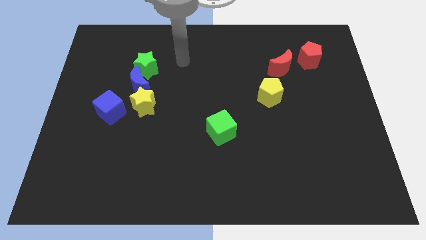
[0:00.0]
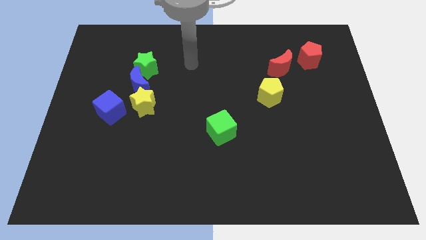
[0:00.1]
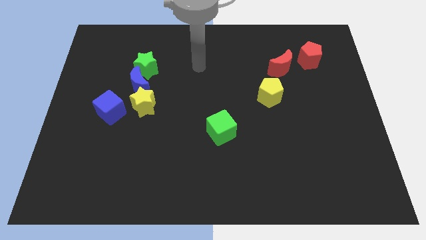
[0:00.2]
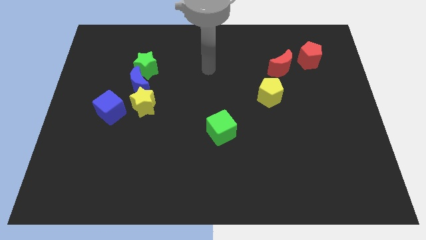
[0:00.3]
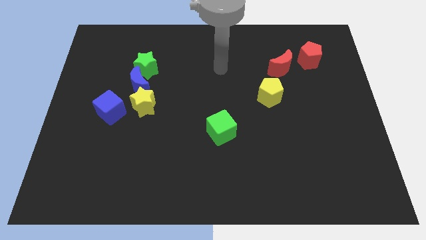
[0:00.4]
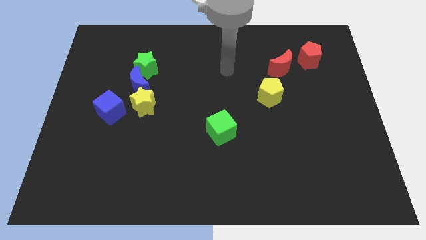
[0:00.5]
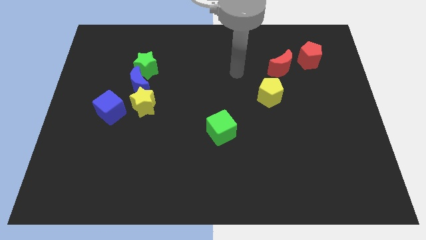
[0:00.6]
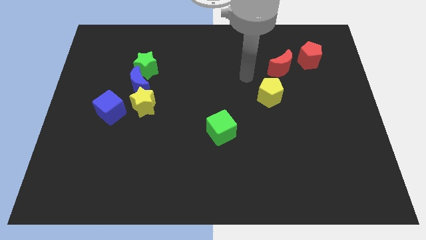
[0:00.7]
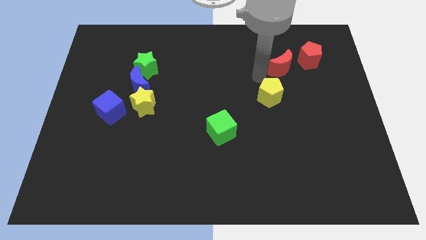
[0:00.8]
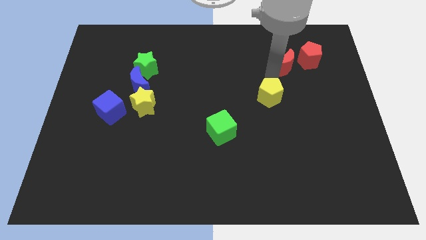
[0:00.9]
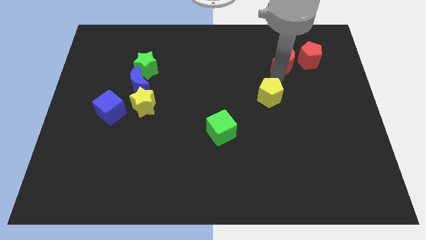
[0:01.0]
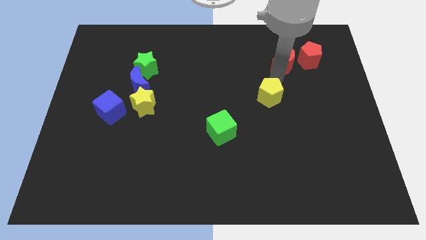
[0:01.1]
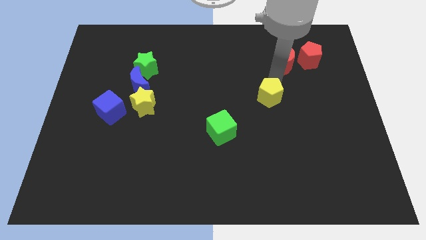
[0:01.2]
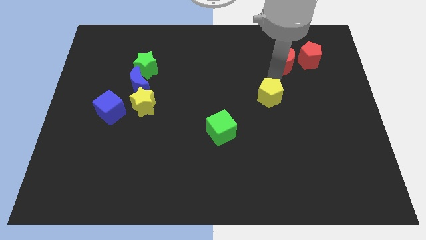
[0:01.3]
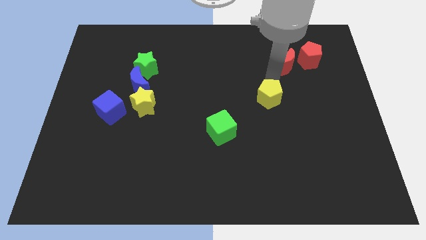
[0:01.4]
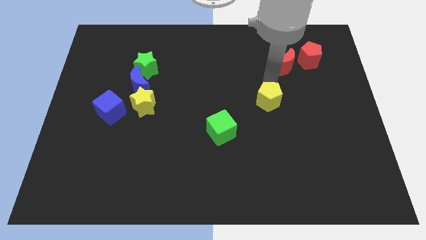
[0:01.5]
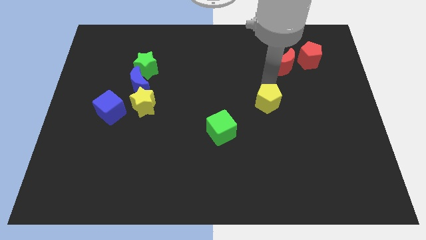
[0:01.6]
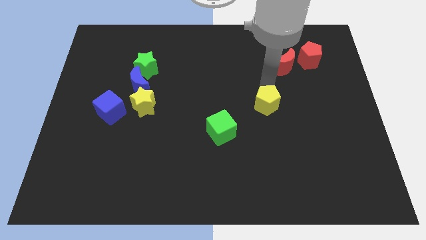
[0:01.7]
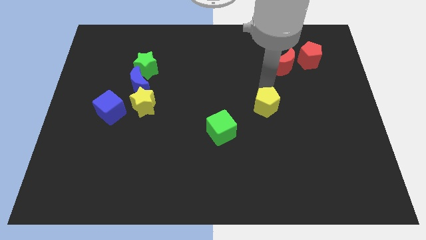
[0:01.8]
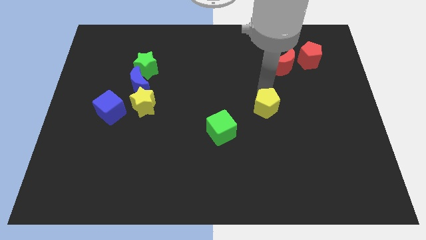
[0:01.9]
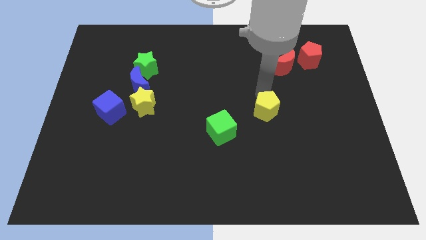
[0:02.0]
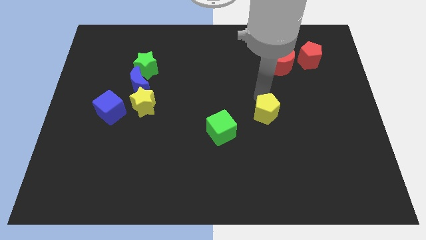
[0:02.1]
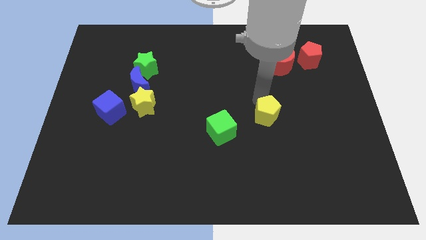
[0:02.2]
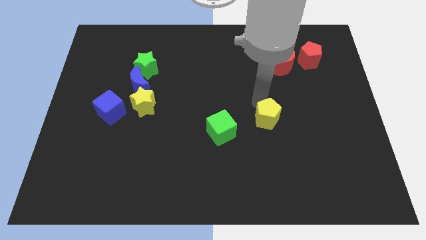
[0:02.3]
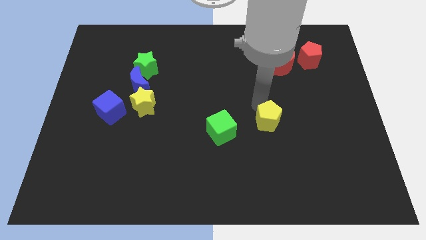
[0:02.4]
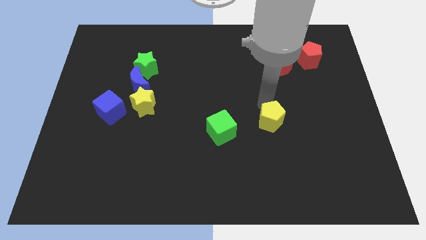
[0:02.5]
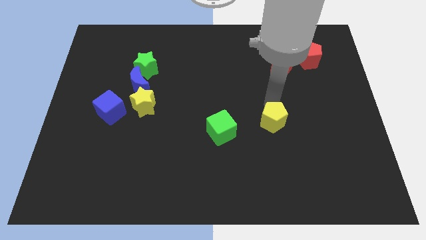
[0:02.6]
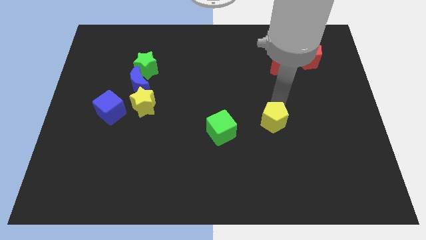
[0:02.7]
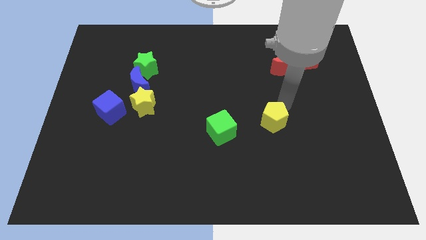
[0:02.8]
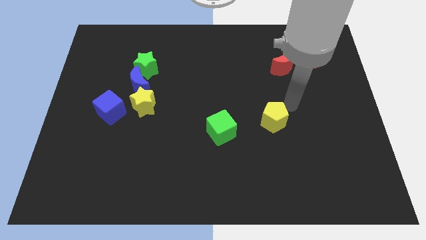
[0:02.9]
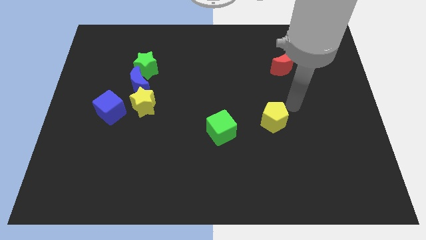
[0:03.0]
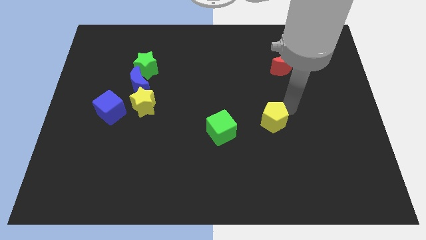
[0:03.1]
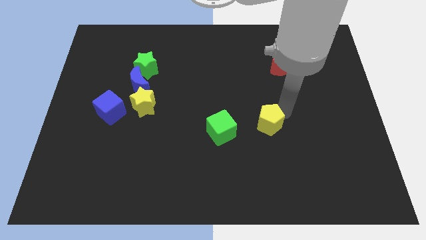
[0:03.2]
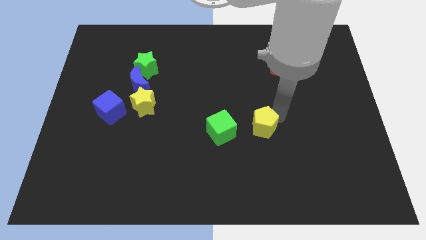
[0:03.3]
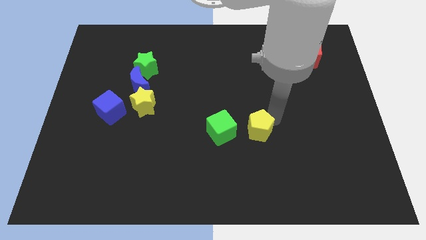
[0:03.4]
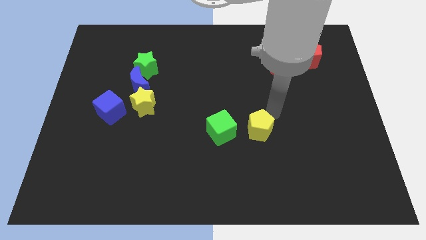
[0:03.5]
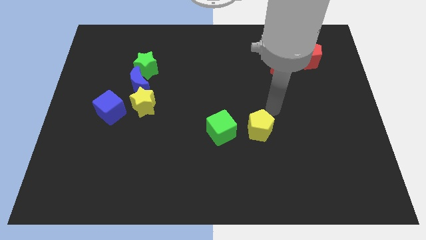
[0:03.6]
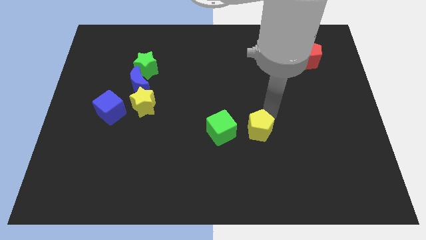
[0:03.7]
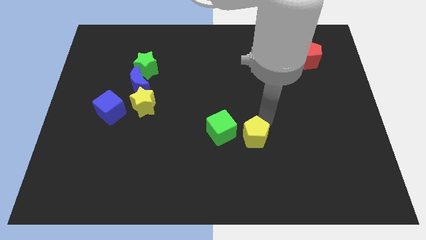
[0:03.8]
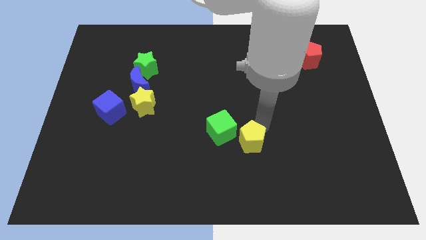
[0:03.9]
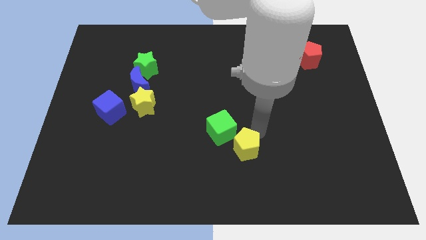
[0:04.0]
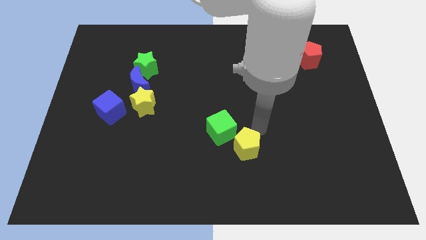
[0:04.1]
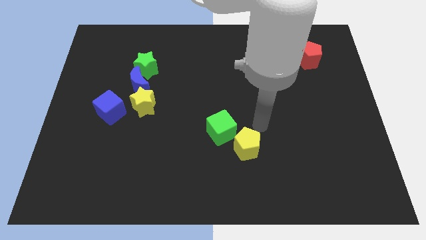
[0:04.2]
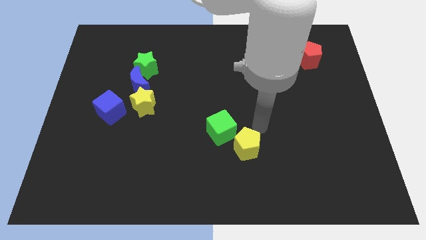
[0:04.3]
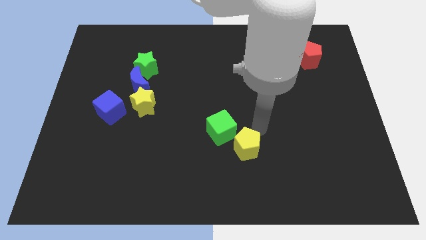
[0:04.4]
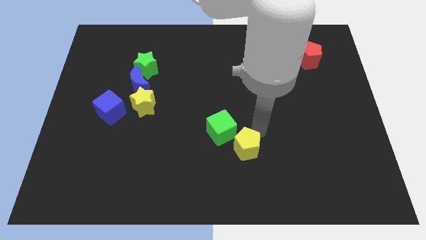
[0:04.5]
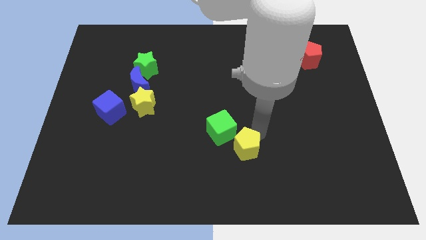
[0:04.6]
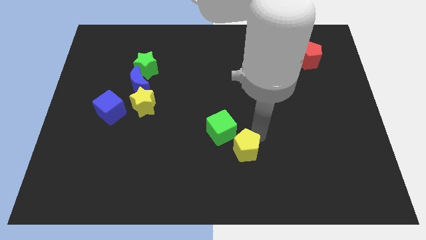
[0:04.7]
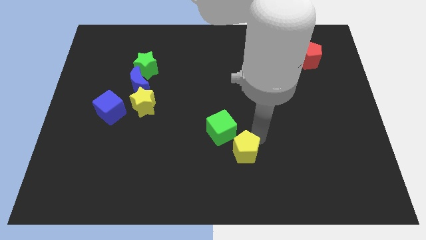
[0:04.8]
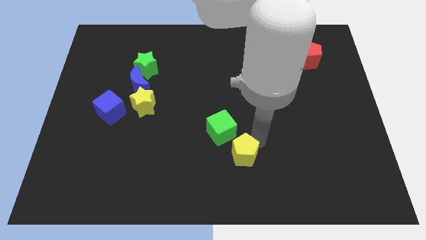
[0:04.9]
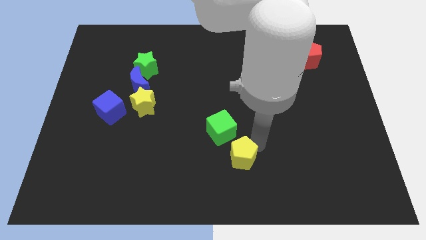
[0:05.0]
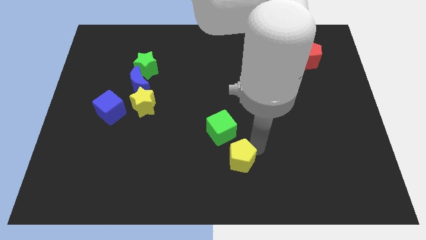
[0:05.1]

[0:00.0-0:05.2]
push the yellow pentagon to the bottom
